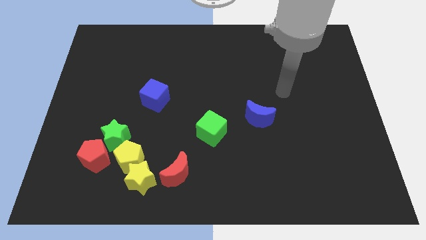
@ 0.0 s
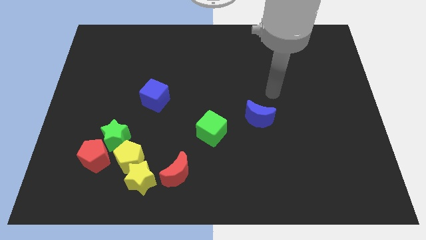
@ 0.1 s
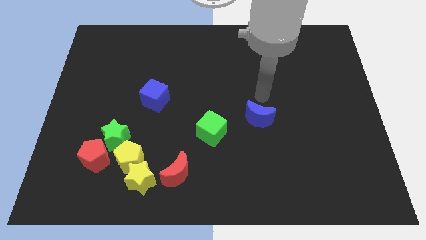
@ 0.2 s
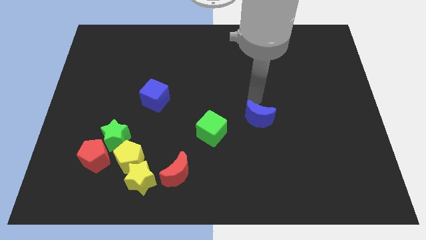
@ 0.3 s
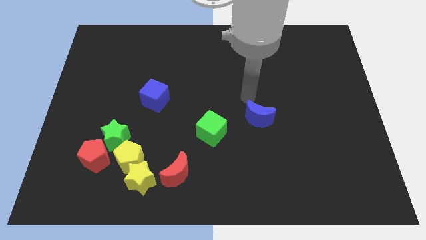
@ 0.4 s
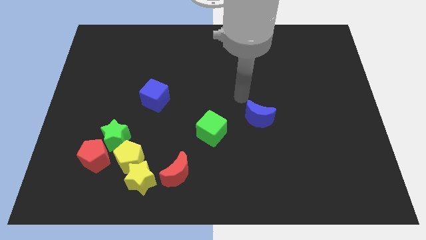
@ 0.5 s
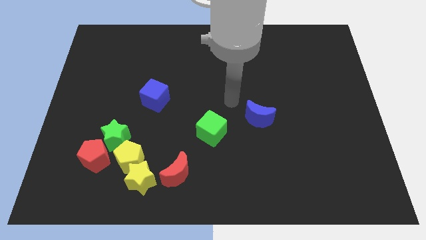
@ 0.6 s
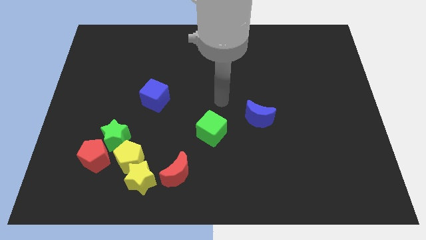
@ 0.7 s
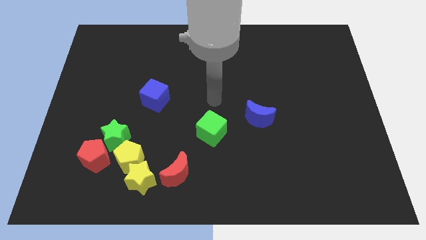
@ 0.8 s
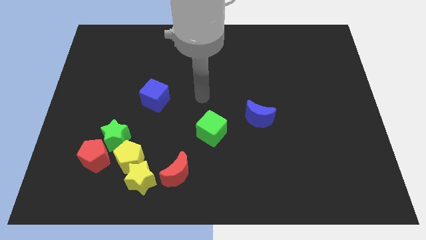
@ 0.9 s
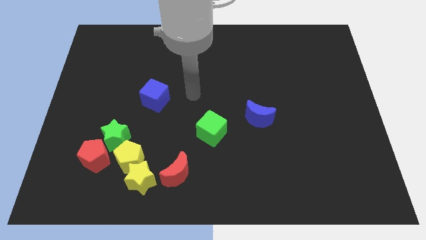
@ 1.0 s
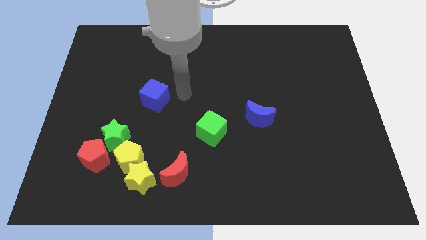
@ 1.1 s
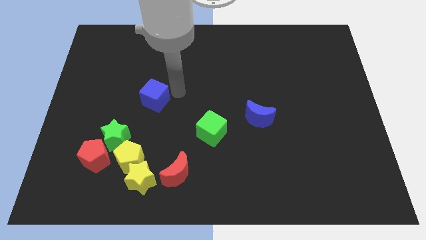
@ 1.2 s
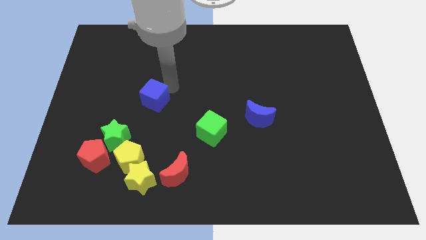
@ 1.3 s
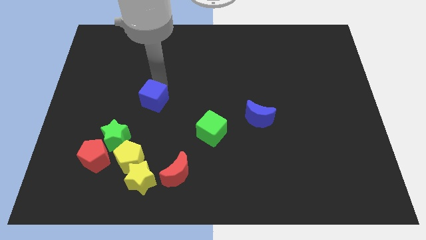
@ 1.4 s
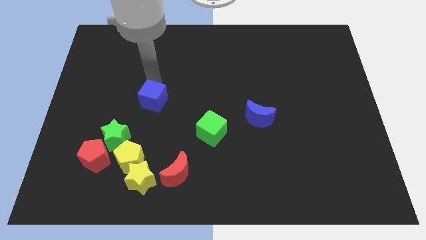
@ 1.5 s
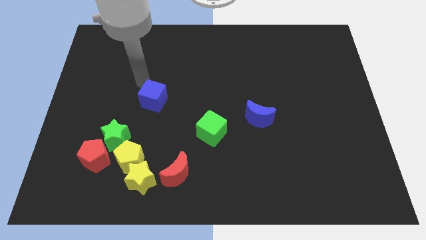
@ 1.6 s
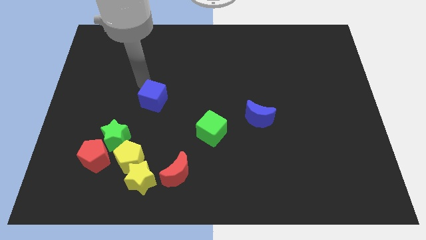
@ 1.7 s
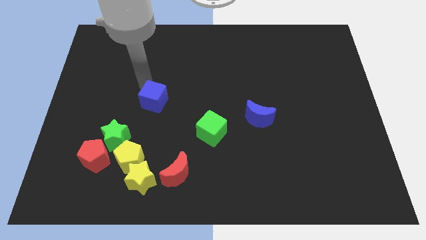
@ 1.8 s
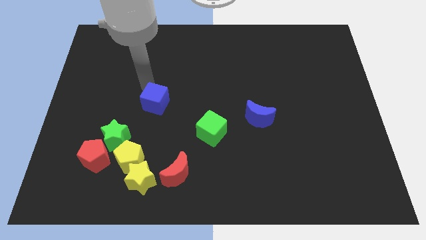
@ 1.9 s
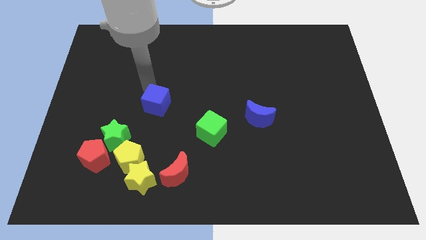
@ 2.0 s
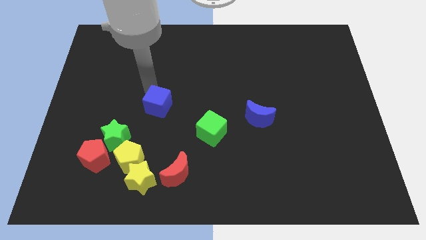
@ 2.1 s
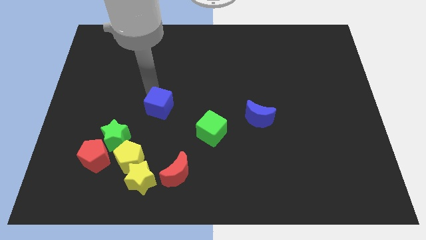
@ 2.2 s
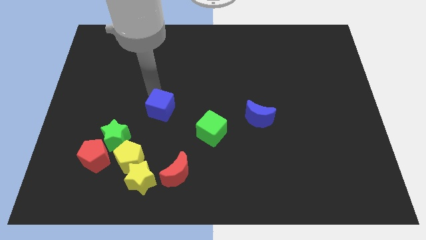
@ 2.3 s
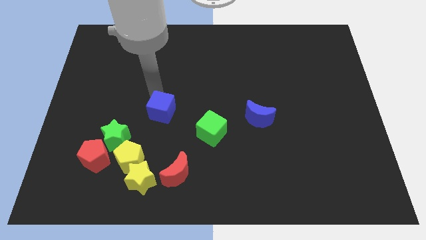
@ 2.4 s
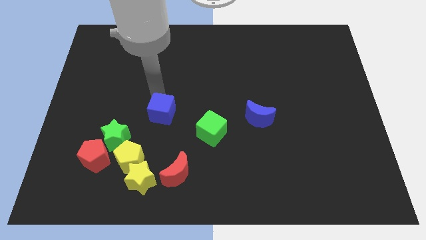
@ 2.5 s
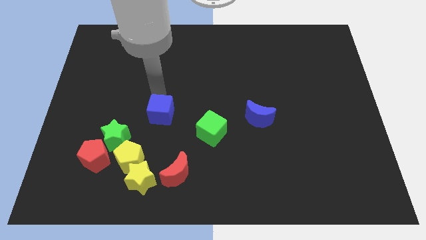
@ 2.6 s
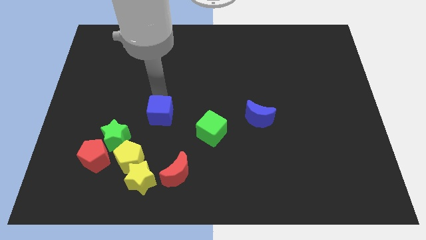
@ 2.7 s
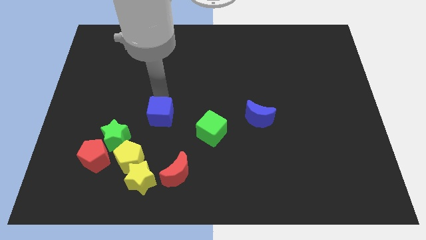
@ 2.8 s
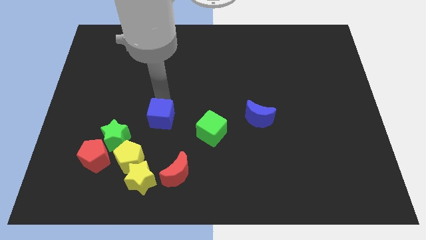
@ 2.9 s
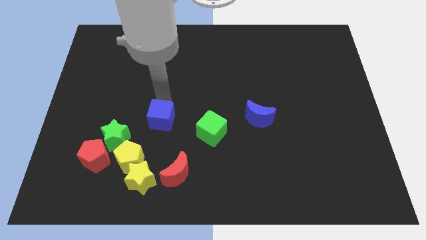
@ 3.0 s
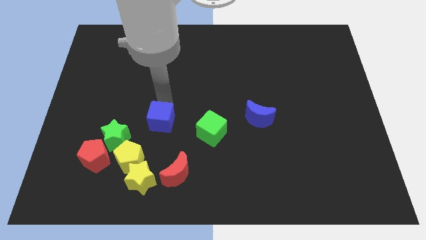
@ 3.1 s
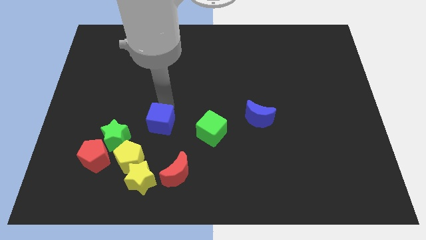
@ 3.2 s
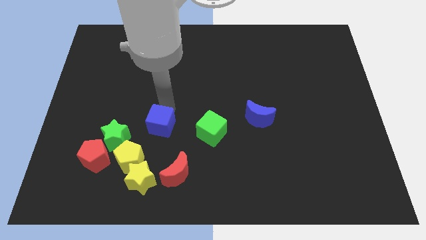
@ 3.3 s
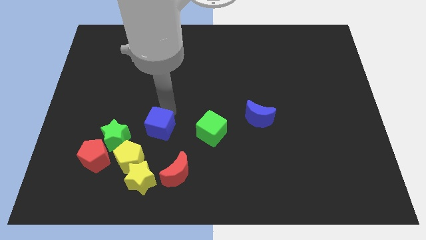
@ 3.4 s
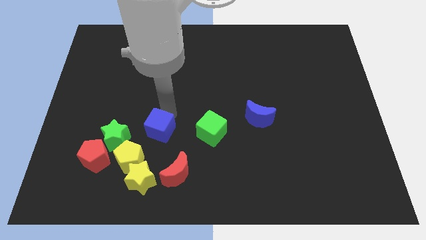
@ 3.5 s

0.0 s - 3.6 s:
slide the blue cube a little downwards and then right

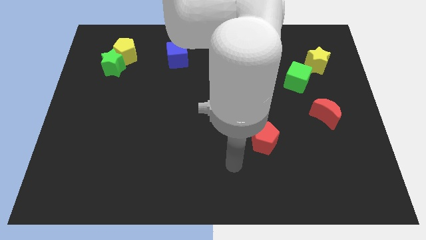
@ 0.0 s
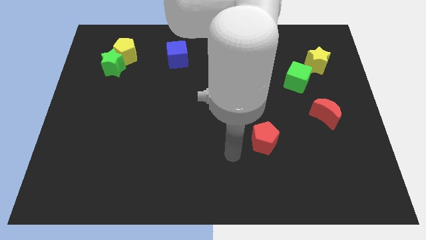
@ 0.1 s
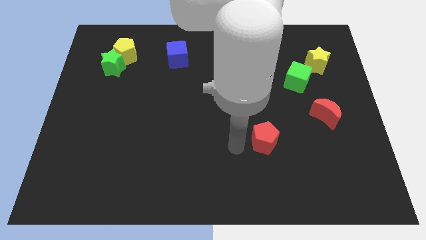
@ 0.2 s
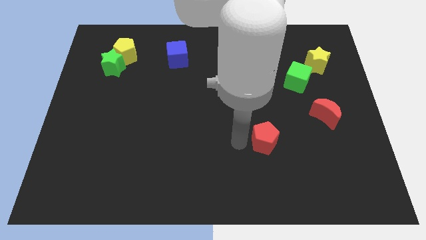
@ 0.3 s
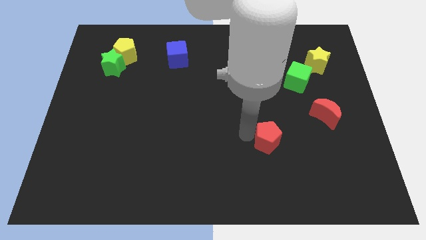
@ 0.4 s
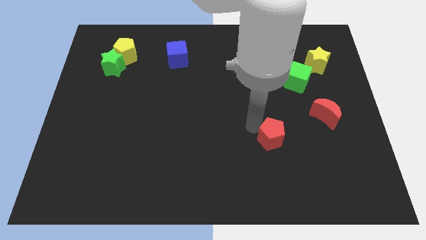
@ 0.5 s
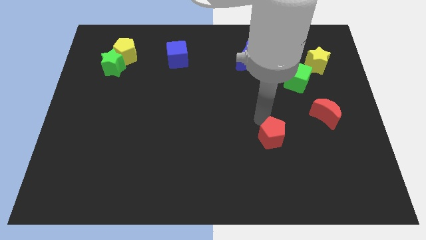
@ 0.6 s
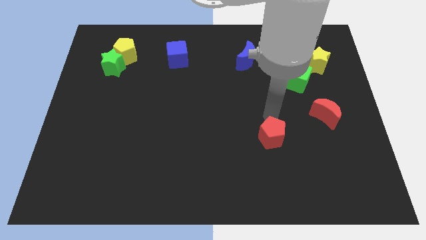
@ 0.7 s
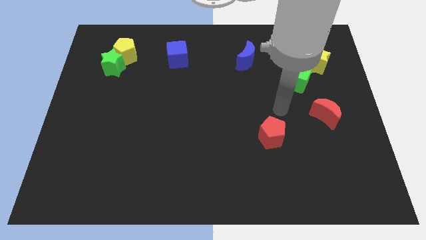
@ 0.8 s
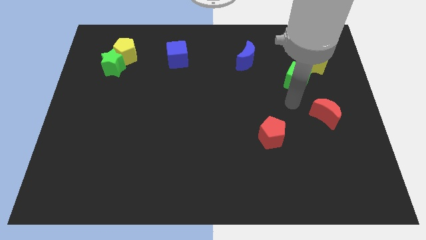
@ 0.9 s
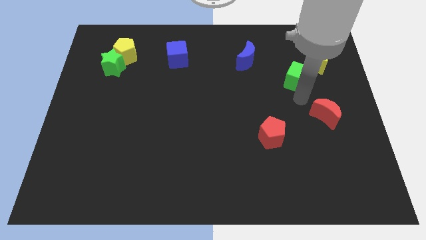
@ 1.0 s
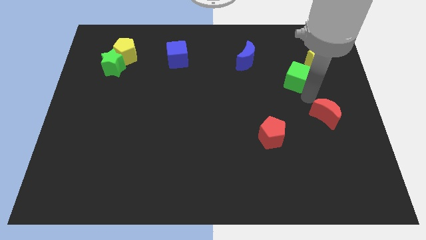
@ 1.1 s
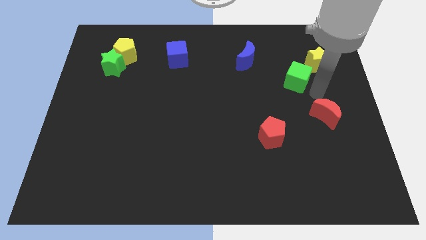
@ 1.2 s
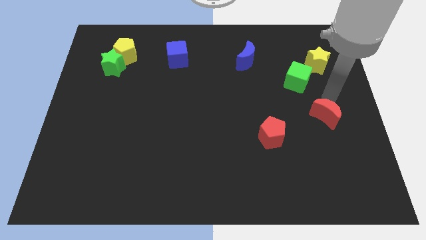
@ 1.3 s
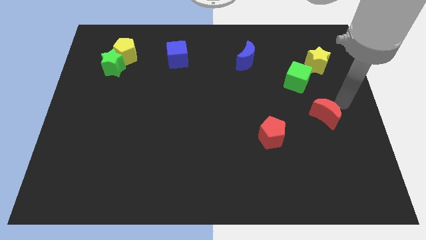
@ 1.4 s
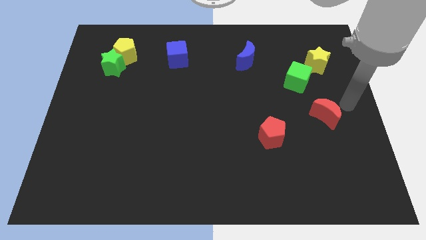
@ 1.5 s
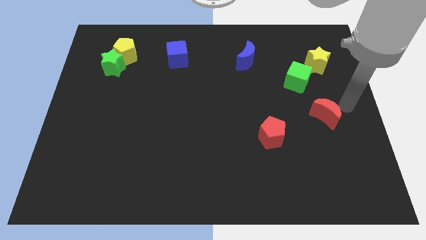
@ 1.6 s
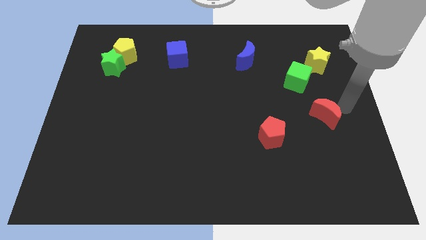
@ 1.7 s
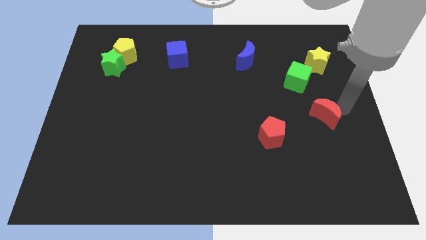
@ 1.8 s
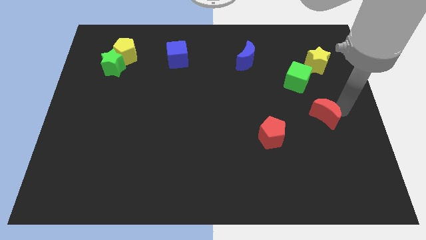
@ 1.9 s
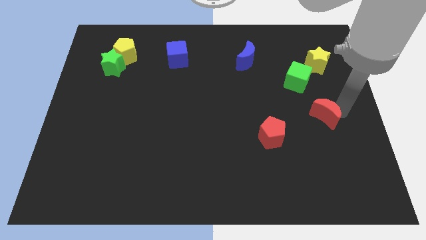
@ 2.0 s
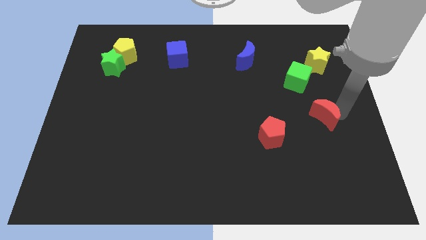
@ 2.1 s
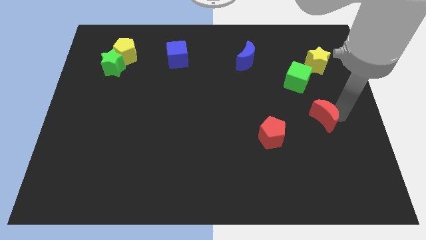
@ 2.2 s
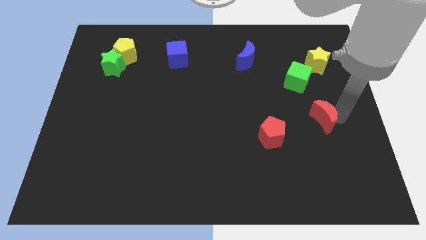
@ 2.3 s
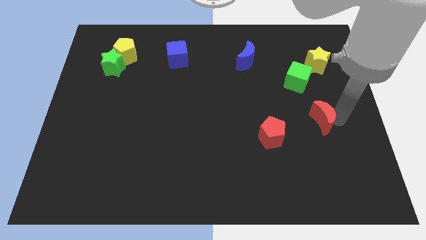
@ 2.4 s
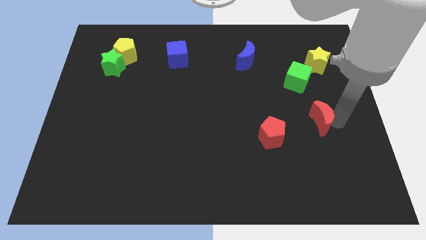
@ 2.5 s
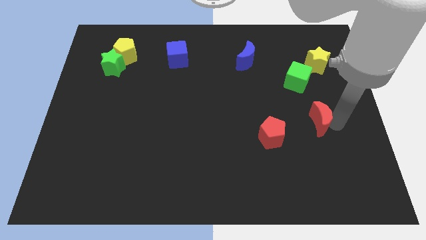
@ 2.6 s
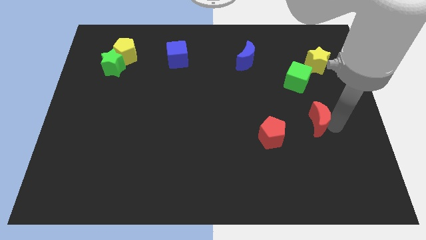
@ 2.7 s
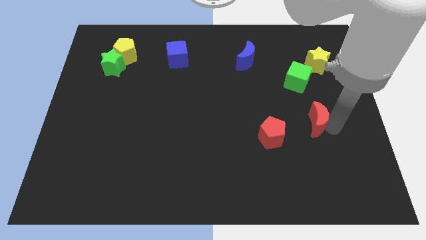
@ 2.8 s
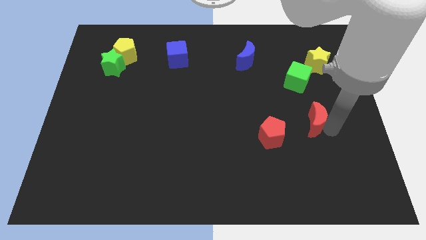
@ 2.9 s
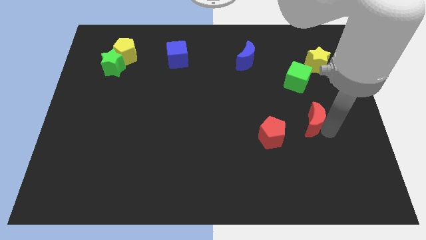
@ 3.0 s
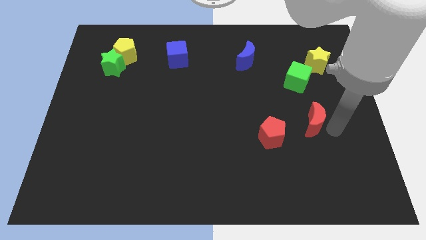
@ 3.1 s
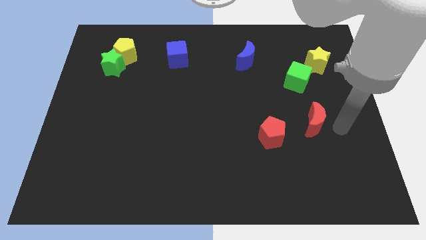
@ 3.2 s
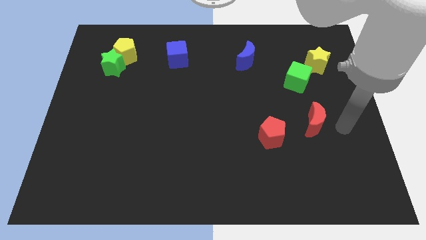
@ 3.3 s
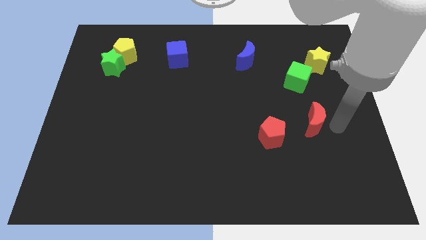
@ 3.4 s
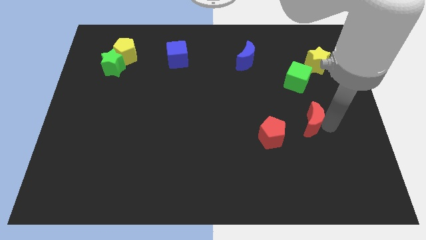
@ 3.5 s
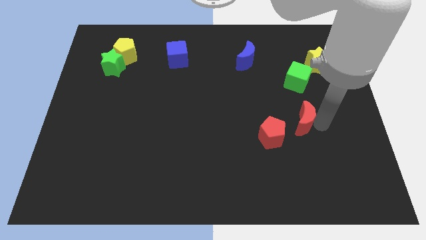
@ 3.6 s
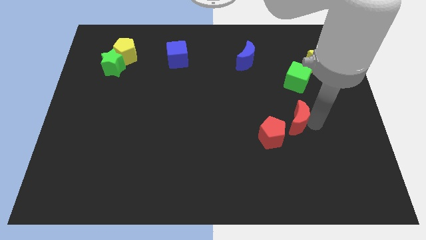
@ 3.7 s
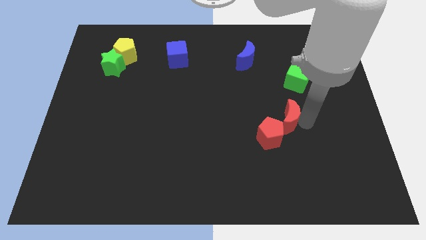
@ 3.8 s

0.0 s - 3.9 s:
slide the red moon to the left a bit

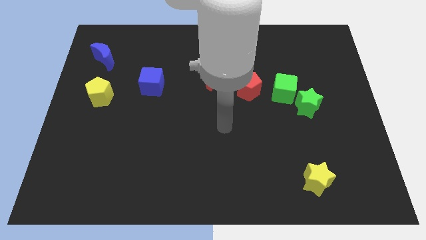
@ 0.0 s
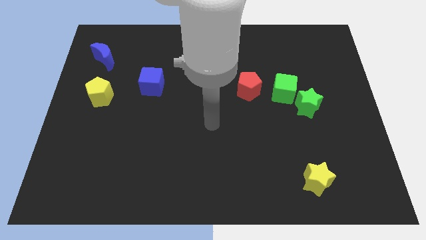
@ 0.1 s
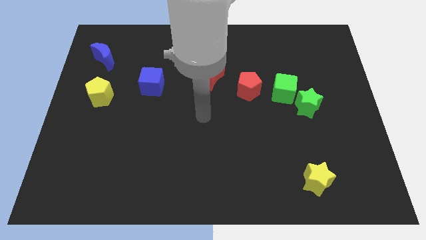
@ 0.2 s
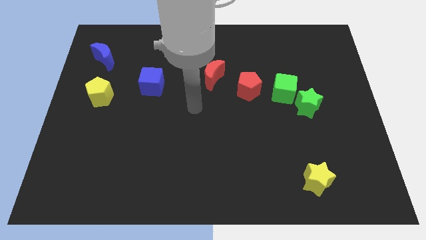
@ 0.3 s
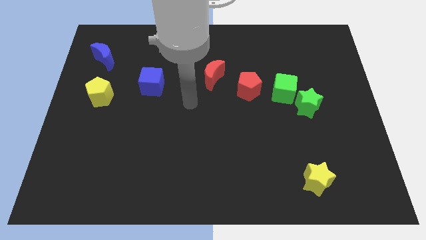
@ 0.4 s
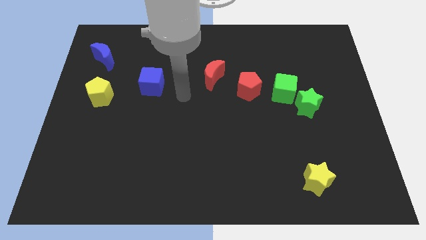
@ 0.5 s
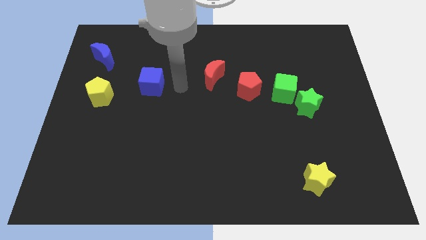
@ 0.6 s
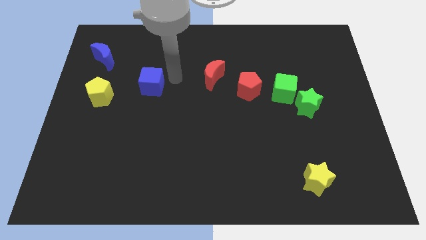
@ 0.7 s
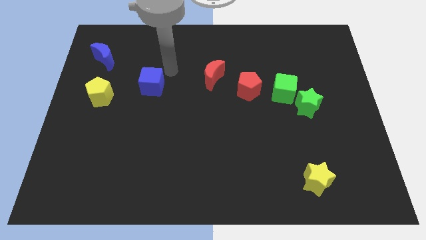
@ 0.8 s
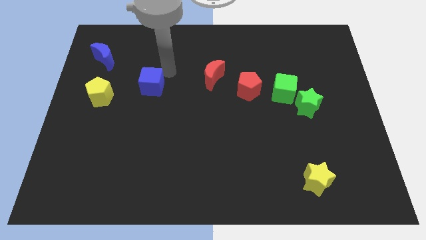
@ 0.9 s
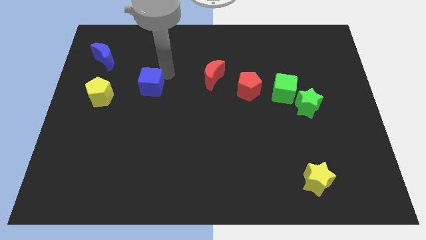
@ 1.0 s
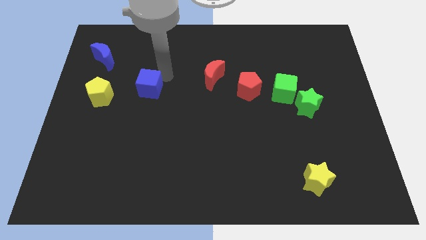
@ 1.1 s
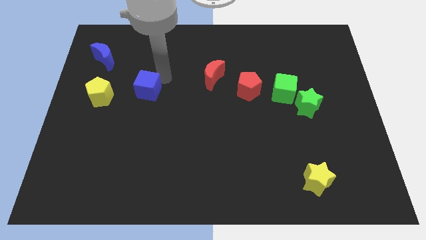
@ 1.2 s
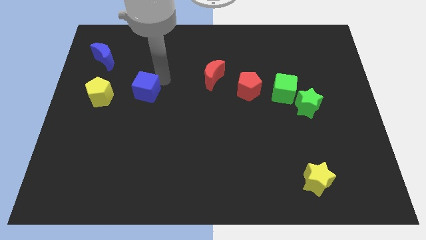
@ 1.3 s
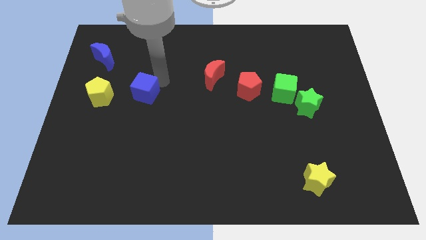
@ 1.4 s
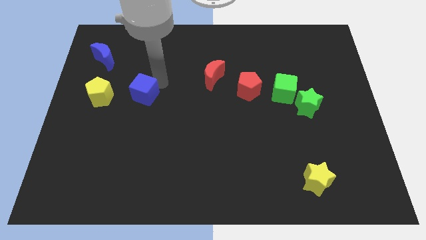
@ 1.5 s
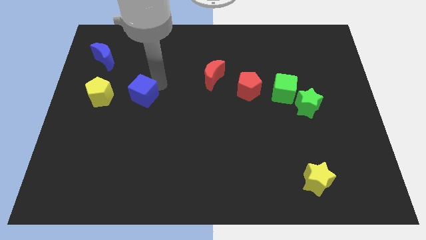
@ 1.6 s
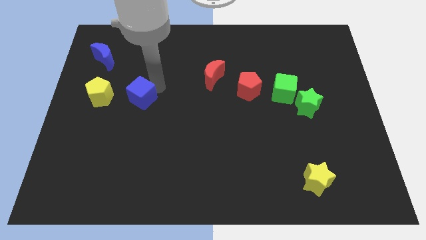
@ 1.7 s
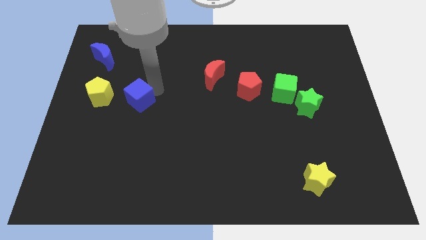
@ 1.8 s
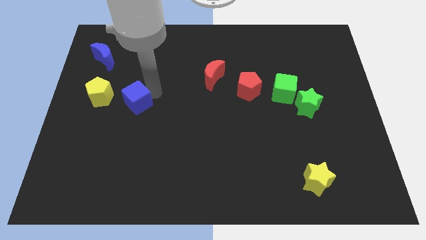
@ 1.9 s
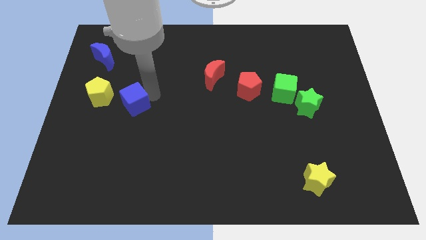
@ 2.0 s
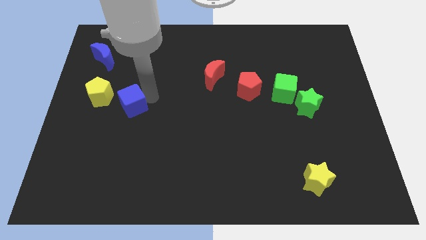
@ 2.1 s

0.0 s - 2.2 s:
slightly move the blue cube downwards and then to the left
